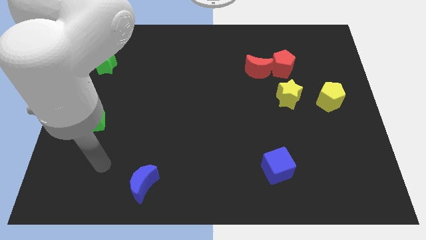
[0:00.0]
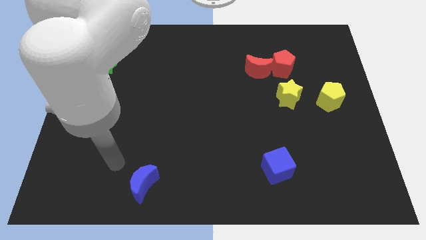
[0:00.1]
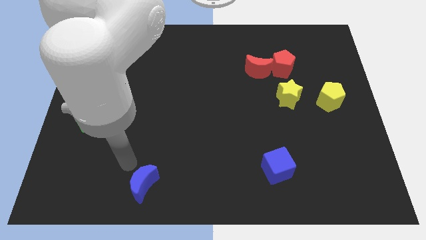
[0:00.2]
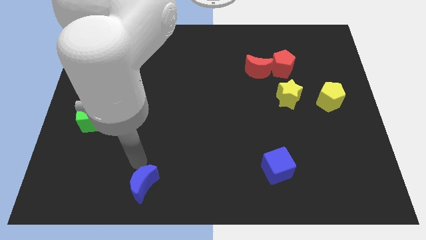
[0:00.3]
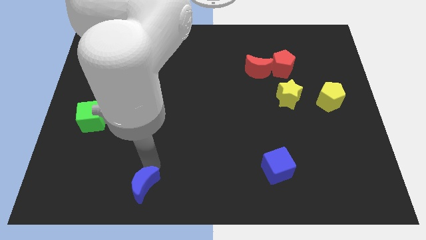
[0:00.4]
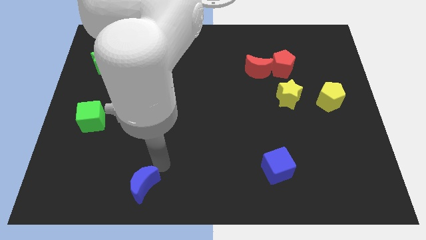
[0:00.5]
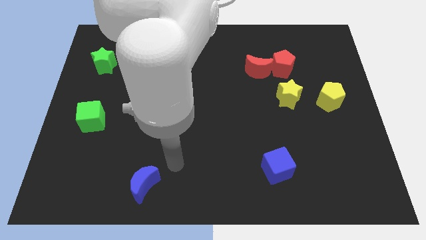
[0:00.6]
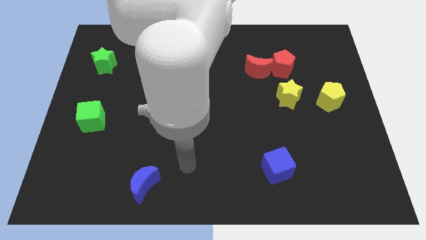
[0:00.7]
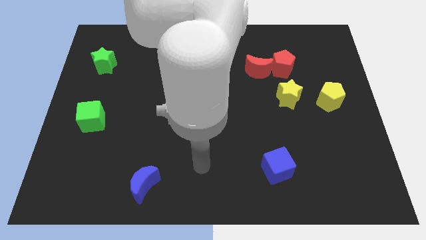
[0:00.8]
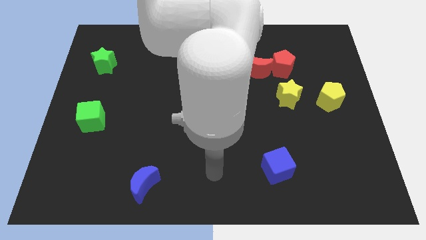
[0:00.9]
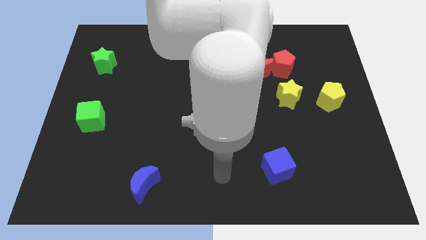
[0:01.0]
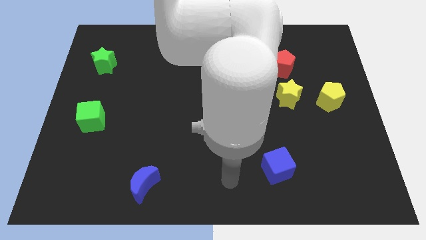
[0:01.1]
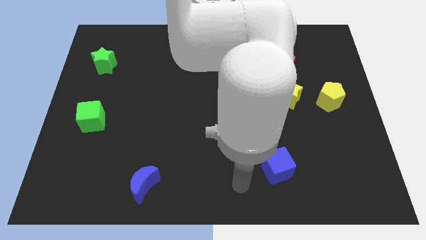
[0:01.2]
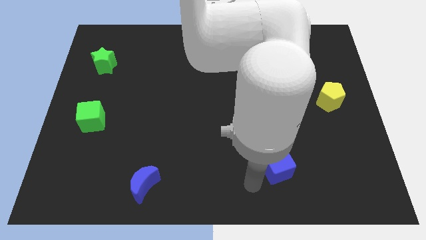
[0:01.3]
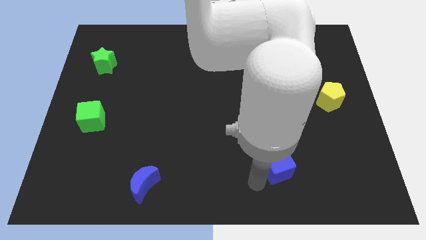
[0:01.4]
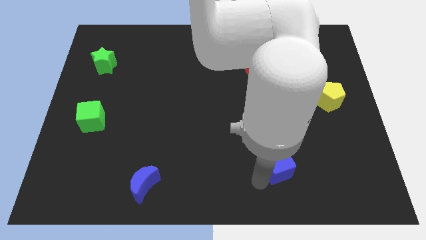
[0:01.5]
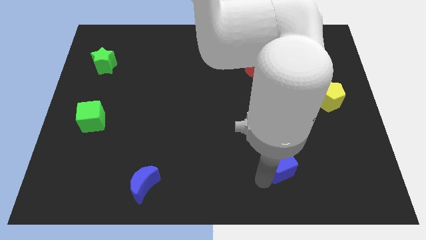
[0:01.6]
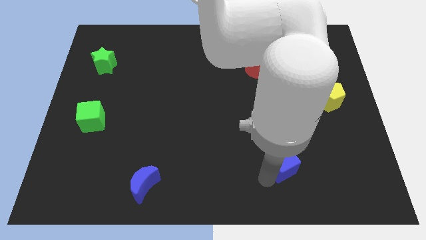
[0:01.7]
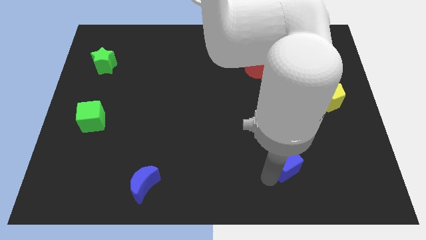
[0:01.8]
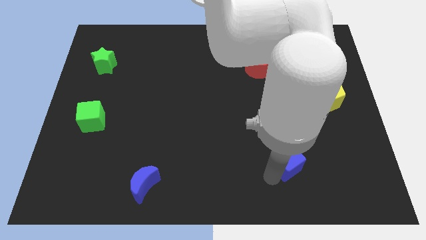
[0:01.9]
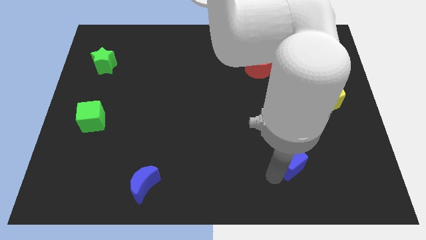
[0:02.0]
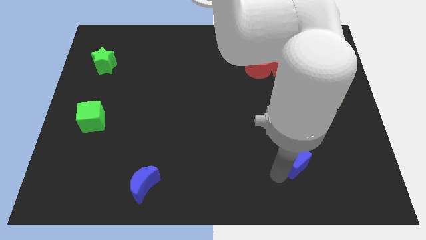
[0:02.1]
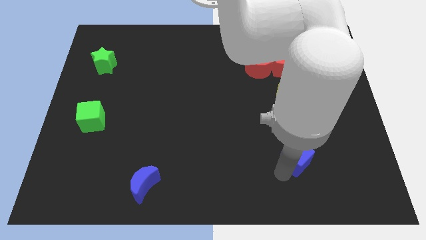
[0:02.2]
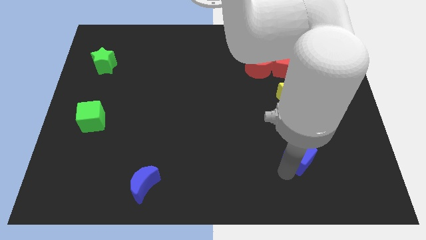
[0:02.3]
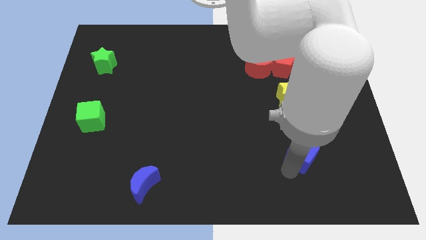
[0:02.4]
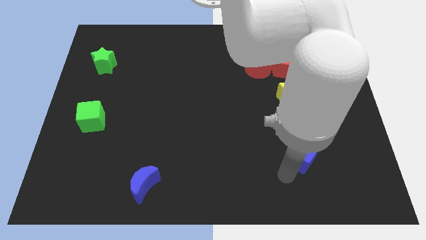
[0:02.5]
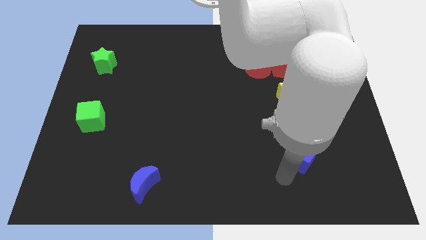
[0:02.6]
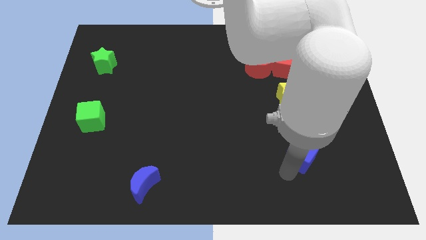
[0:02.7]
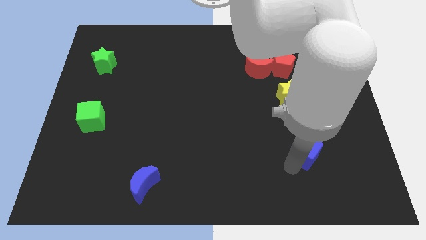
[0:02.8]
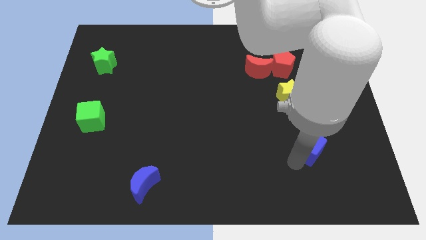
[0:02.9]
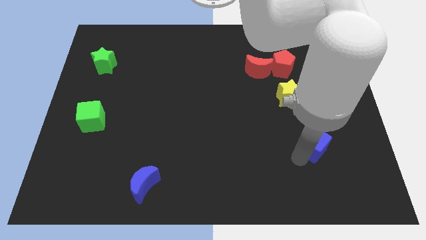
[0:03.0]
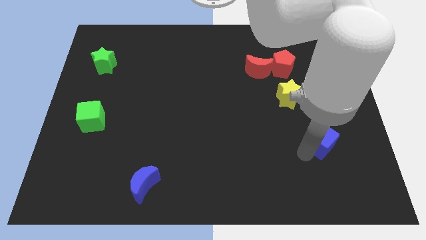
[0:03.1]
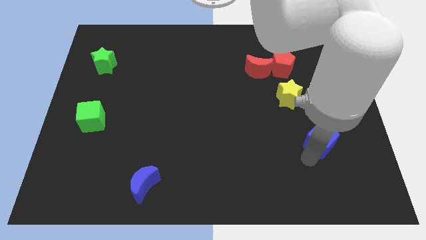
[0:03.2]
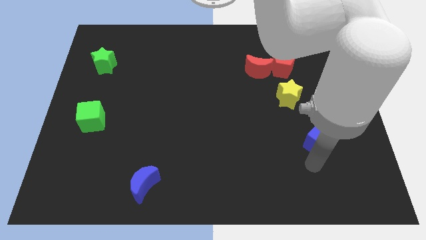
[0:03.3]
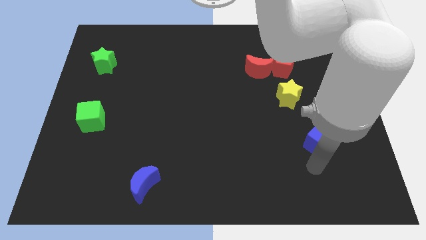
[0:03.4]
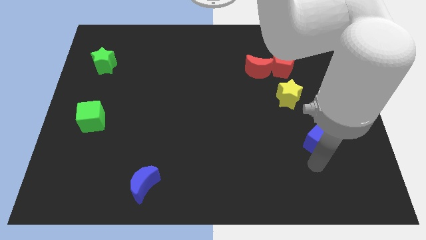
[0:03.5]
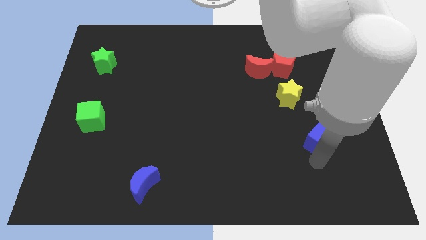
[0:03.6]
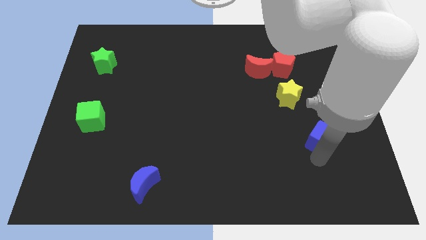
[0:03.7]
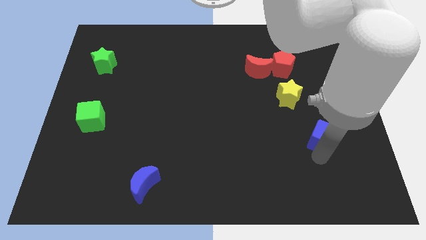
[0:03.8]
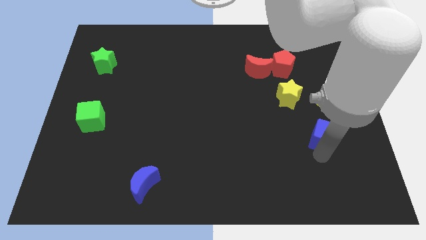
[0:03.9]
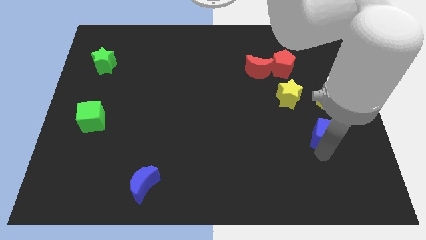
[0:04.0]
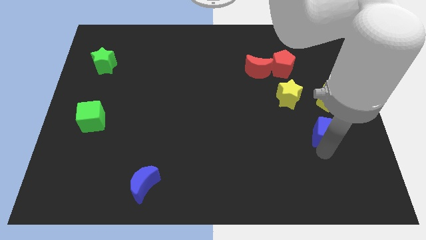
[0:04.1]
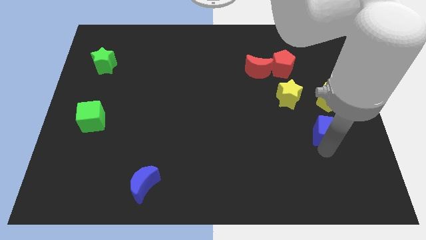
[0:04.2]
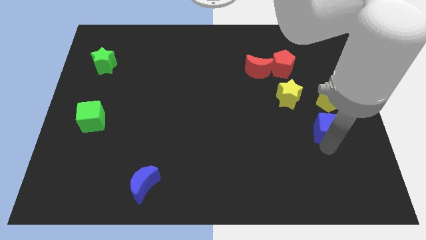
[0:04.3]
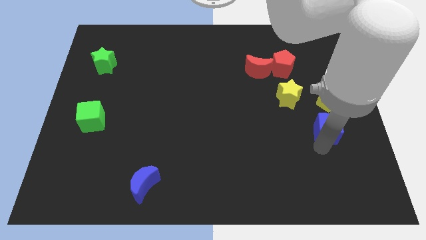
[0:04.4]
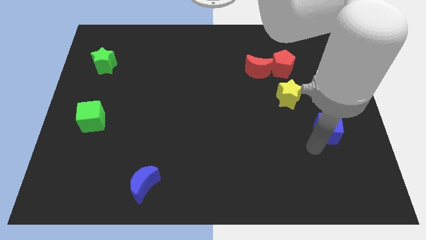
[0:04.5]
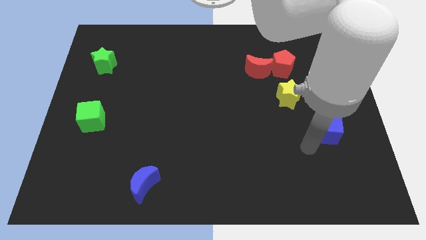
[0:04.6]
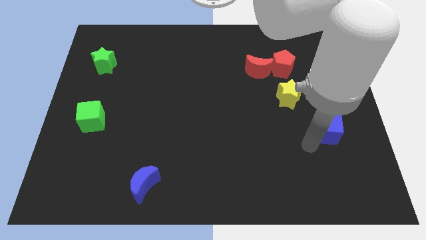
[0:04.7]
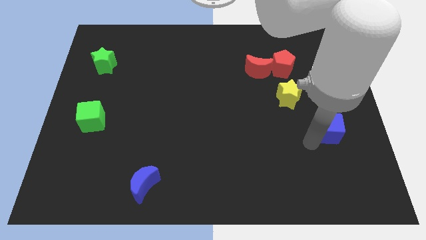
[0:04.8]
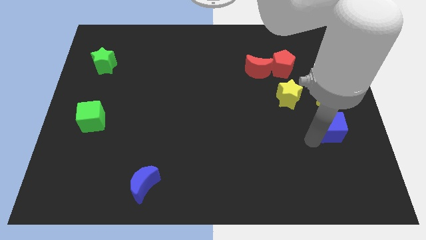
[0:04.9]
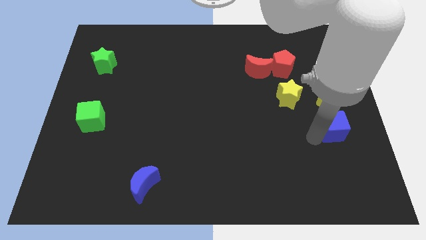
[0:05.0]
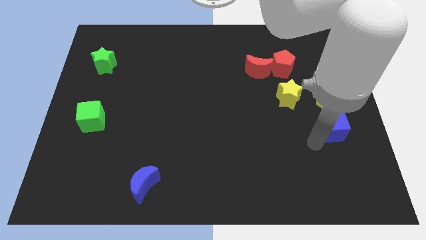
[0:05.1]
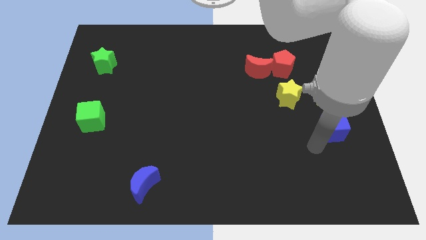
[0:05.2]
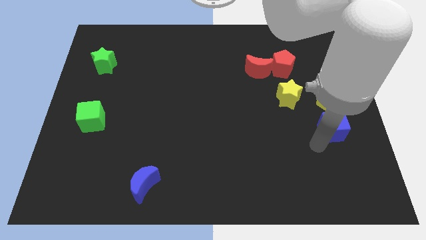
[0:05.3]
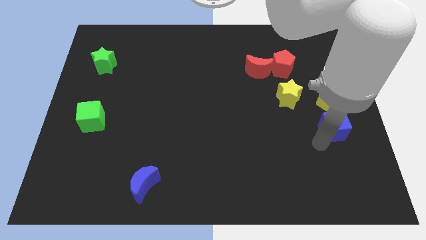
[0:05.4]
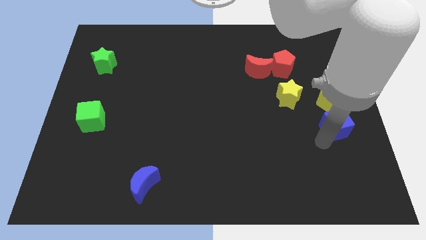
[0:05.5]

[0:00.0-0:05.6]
slide the blue cube to the right side
